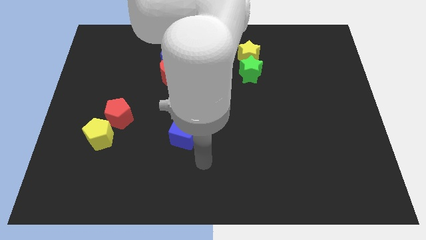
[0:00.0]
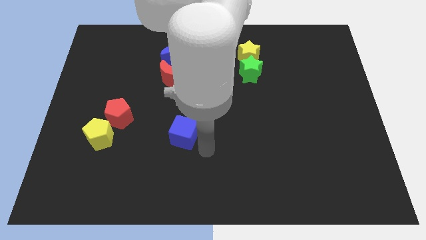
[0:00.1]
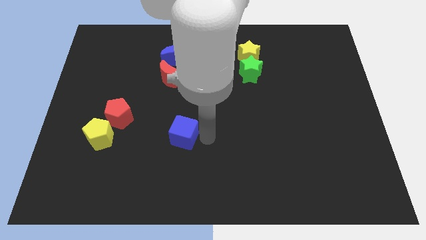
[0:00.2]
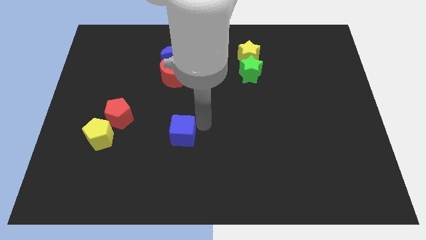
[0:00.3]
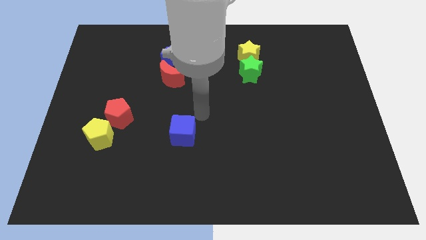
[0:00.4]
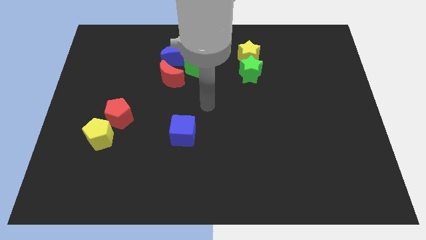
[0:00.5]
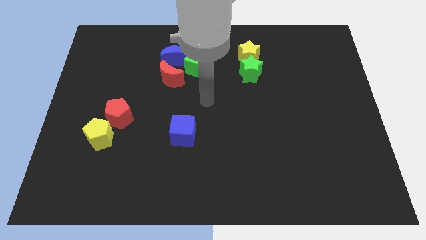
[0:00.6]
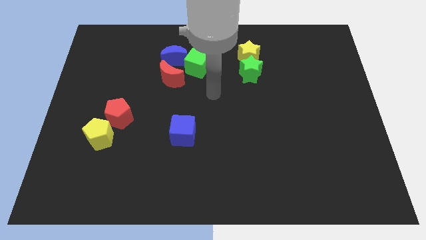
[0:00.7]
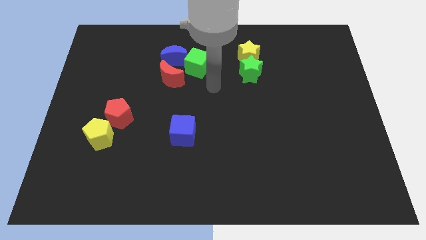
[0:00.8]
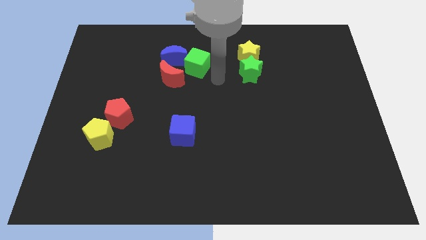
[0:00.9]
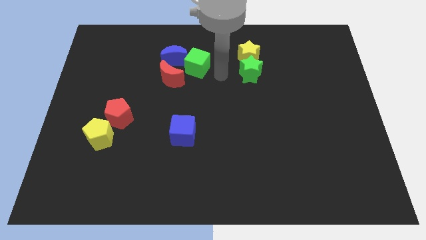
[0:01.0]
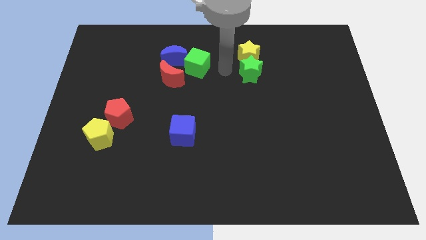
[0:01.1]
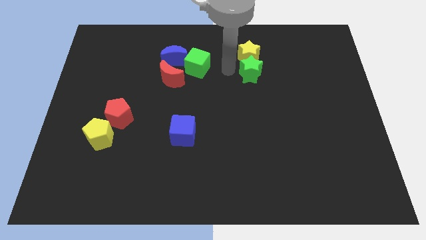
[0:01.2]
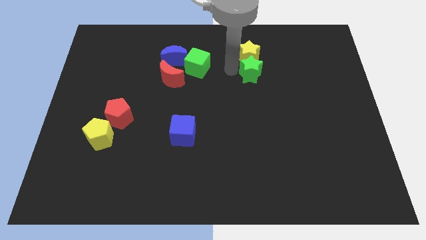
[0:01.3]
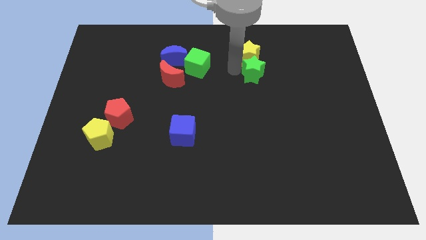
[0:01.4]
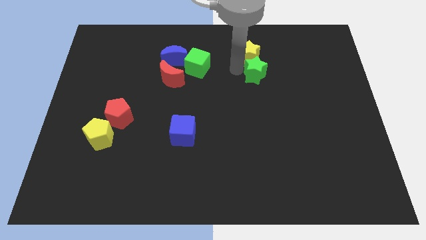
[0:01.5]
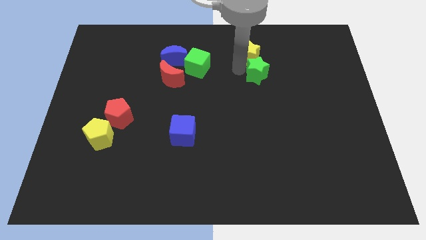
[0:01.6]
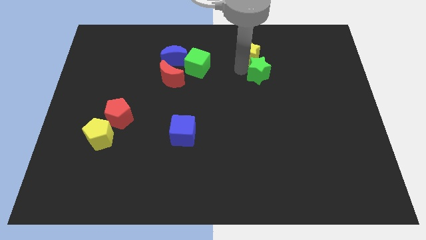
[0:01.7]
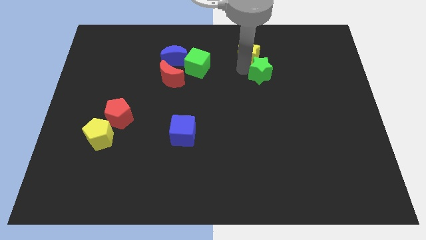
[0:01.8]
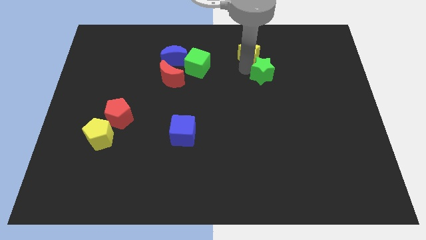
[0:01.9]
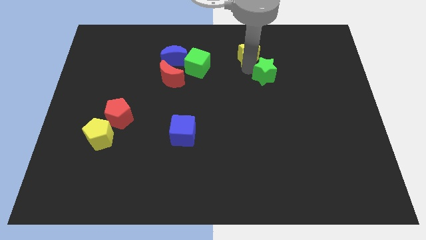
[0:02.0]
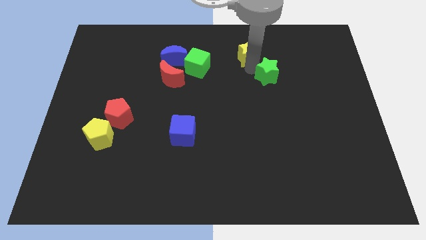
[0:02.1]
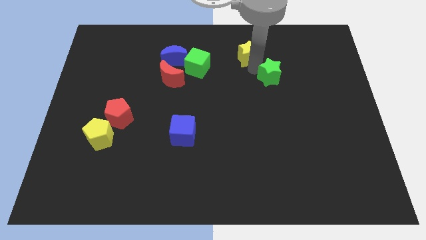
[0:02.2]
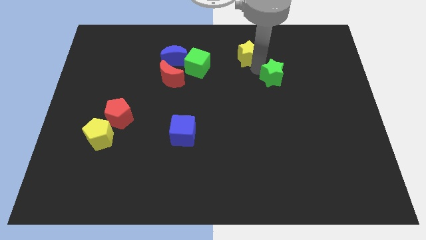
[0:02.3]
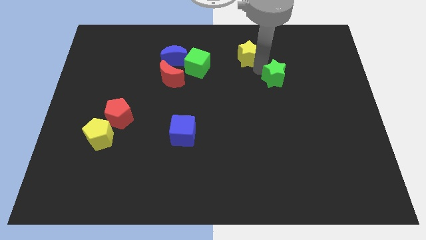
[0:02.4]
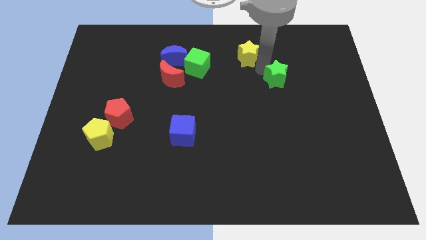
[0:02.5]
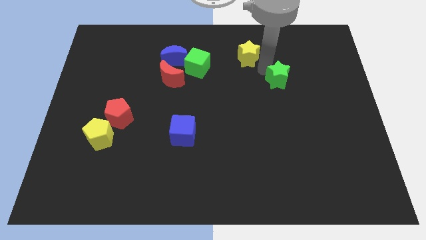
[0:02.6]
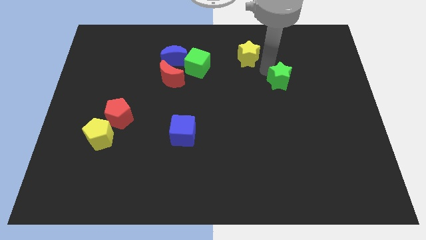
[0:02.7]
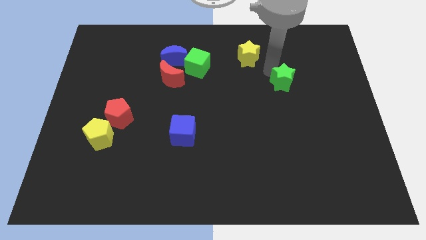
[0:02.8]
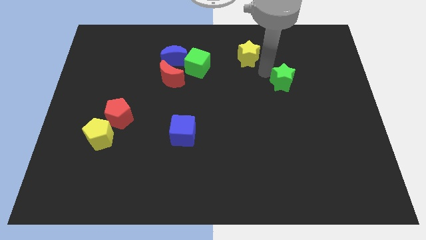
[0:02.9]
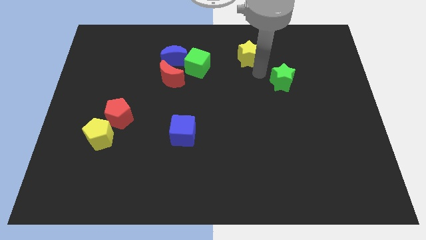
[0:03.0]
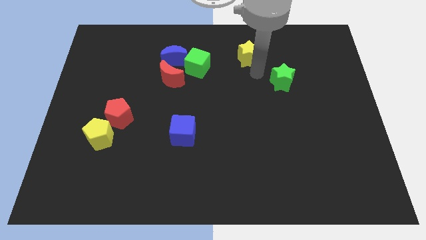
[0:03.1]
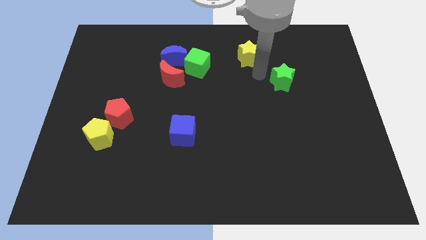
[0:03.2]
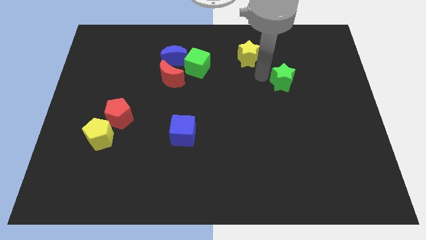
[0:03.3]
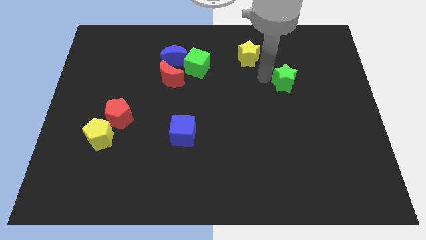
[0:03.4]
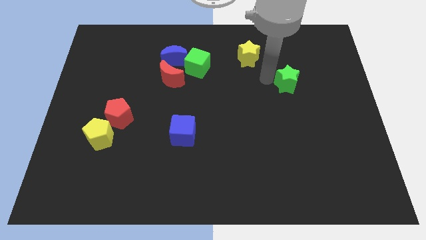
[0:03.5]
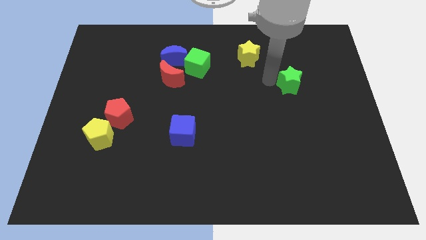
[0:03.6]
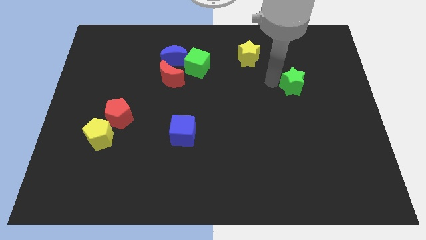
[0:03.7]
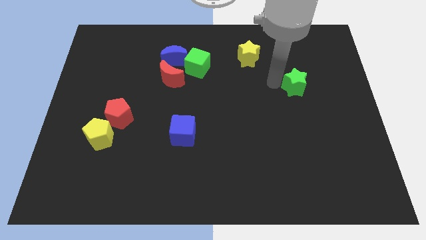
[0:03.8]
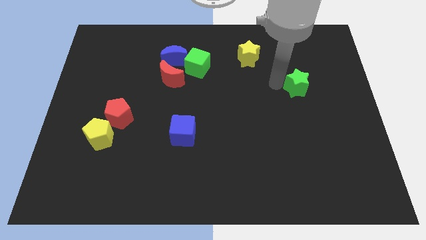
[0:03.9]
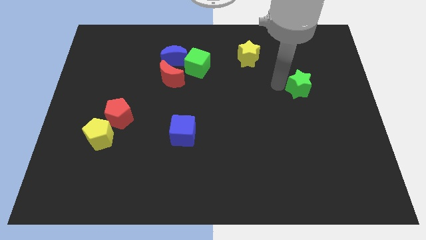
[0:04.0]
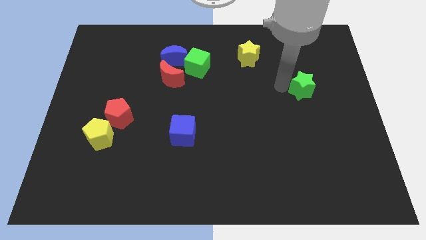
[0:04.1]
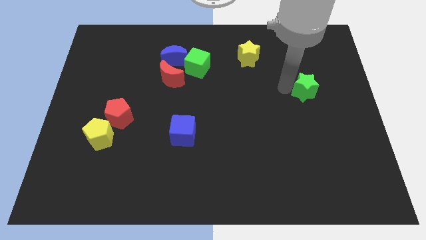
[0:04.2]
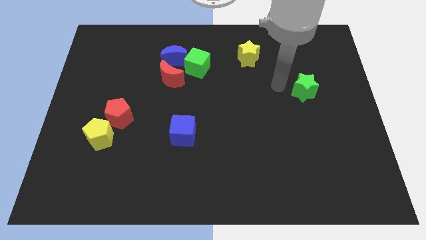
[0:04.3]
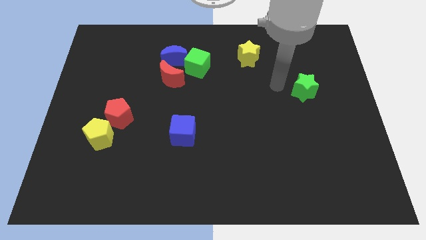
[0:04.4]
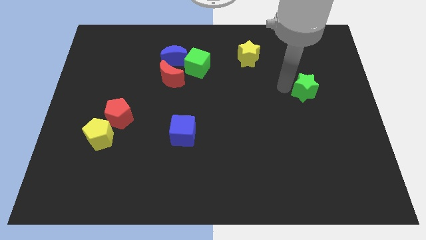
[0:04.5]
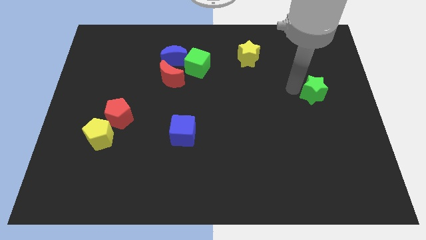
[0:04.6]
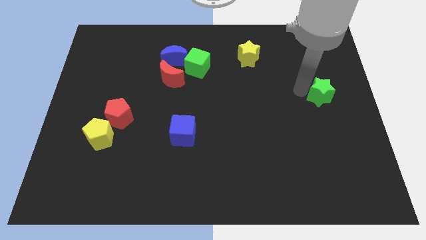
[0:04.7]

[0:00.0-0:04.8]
push the green star to the right side
